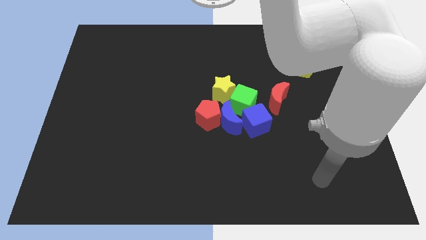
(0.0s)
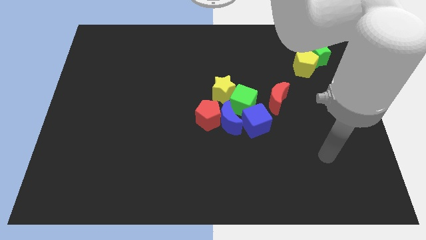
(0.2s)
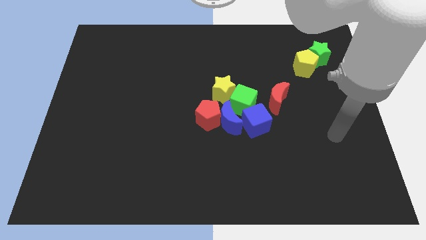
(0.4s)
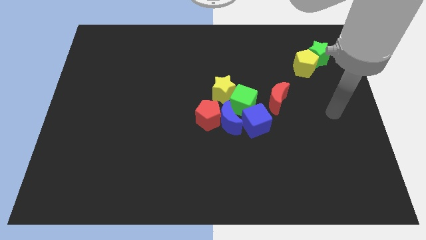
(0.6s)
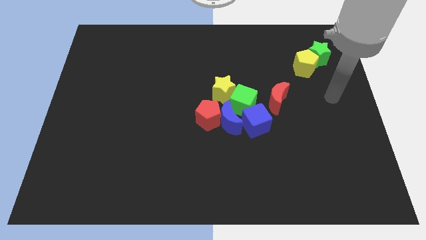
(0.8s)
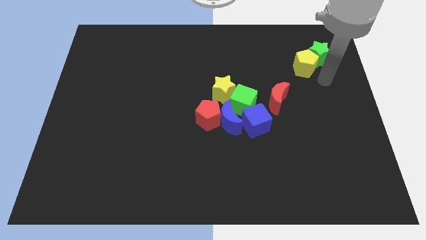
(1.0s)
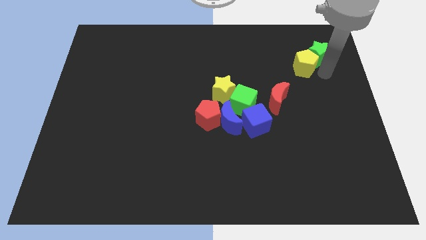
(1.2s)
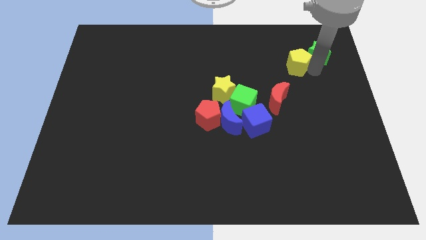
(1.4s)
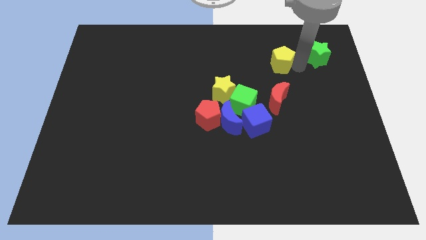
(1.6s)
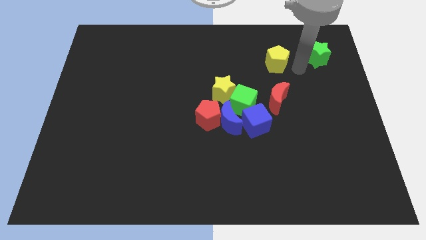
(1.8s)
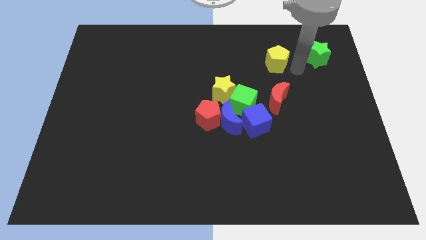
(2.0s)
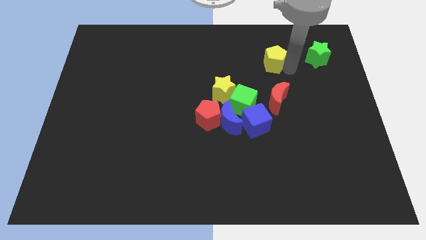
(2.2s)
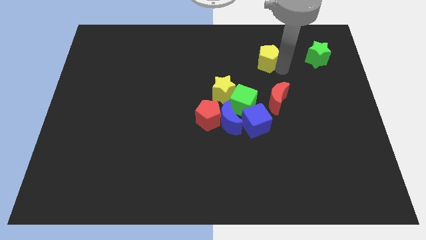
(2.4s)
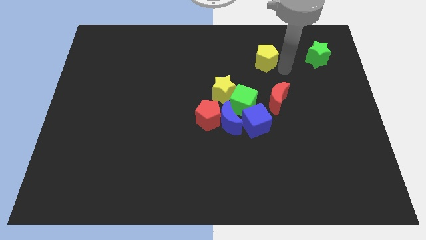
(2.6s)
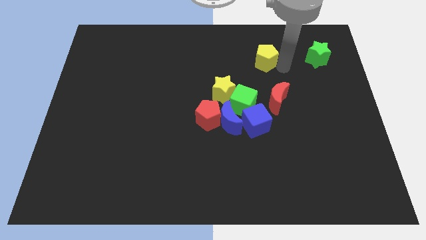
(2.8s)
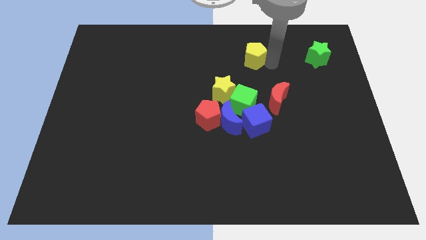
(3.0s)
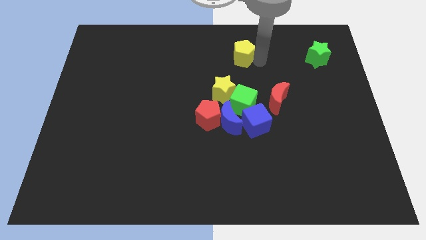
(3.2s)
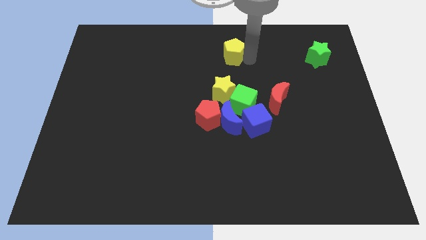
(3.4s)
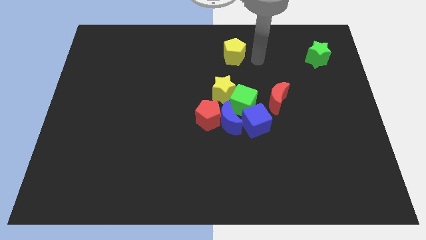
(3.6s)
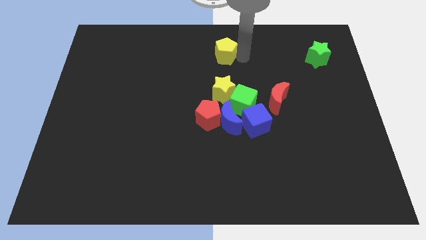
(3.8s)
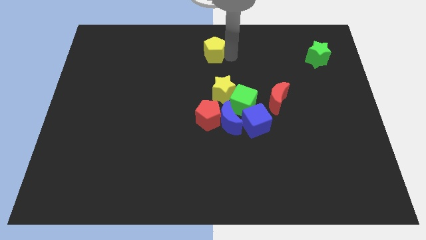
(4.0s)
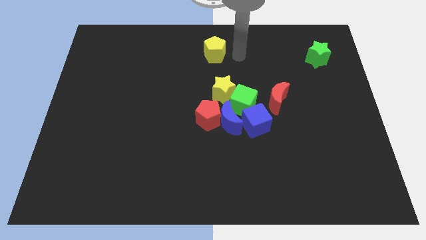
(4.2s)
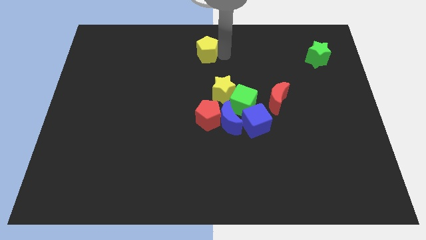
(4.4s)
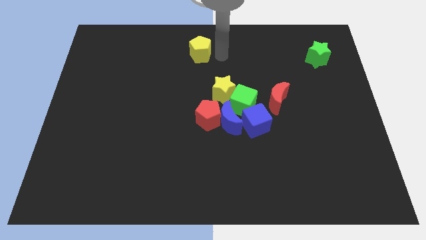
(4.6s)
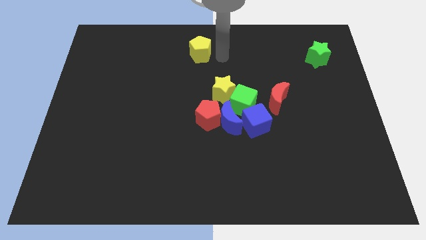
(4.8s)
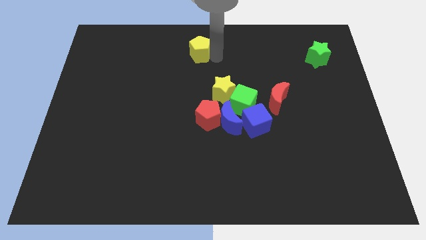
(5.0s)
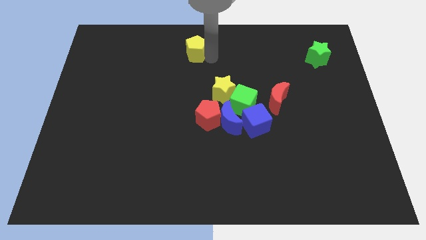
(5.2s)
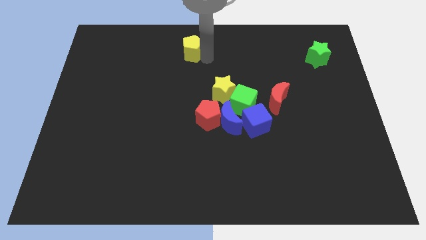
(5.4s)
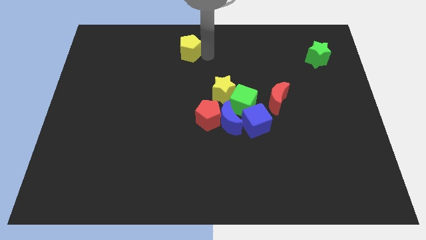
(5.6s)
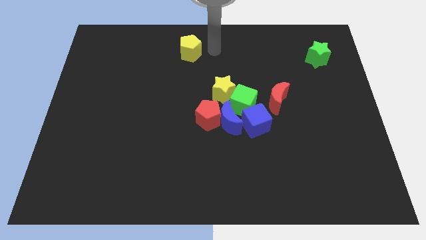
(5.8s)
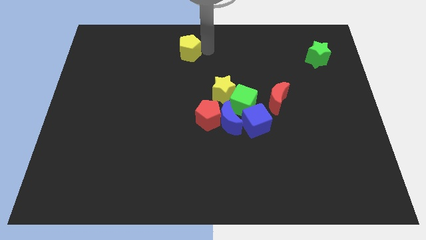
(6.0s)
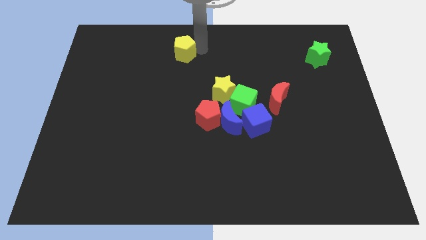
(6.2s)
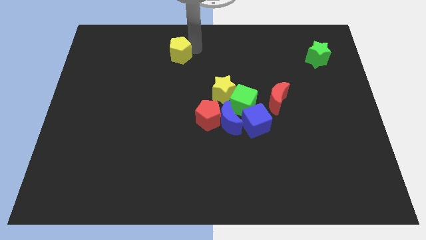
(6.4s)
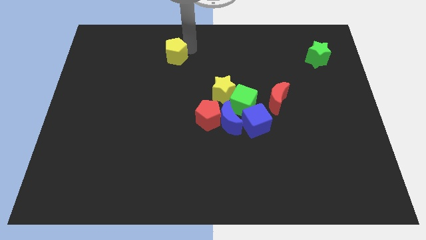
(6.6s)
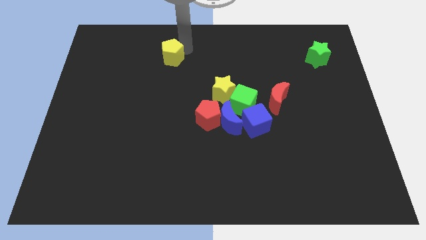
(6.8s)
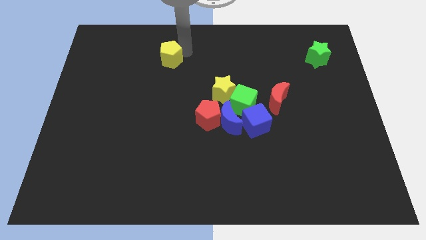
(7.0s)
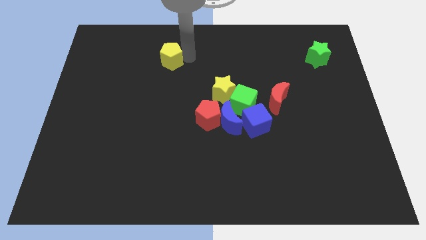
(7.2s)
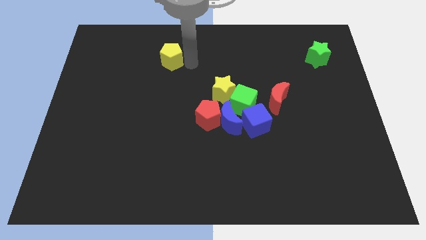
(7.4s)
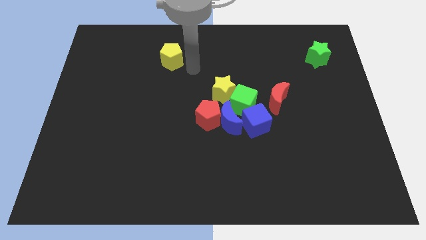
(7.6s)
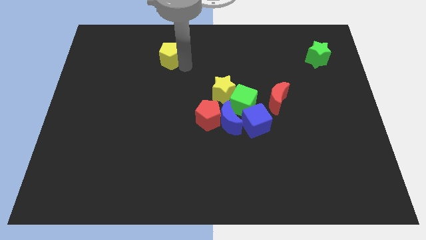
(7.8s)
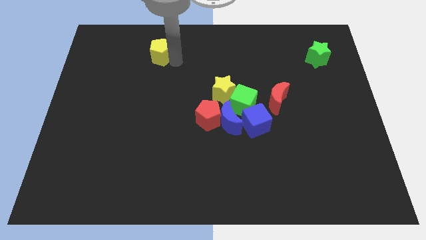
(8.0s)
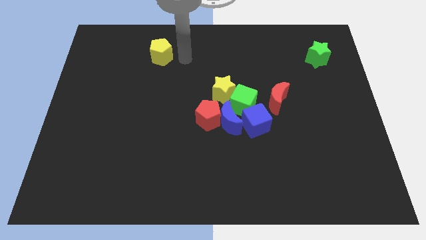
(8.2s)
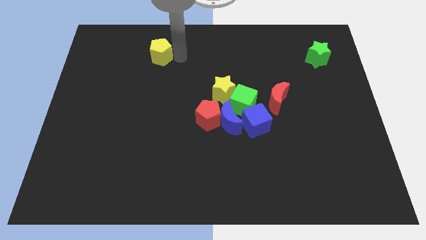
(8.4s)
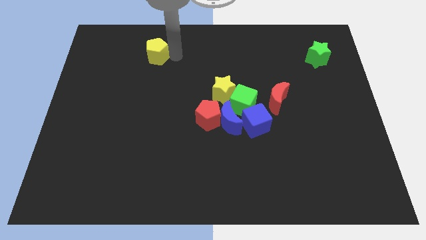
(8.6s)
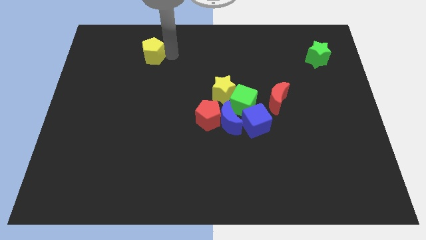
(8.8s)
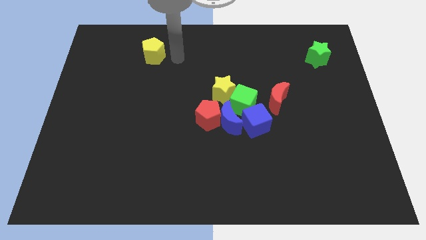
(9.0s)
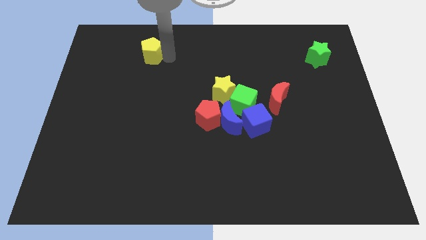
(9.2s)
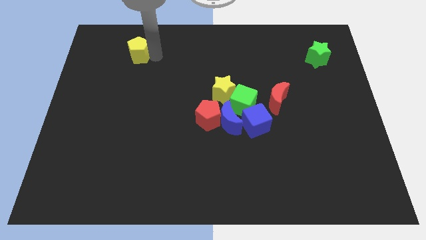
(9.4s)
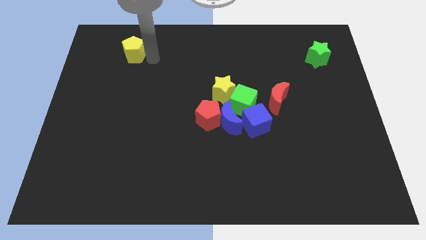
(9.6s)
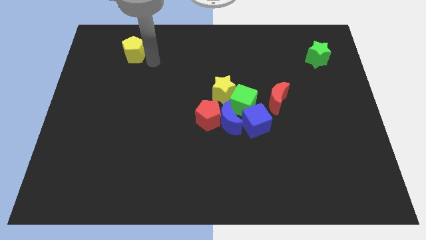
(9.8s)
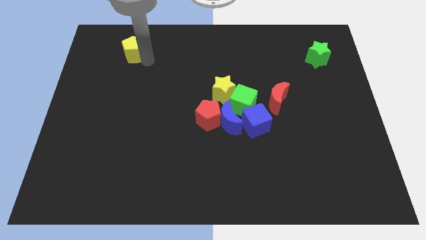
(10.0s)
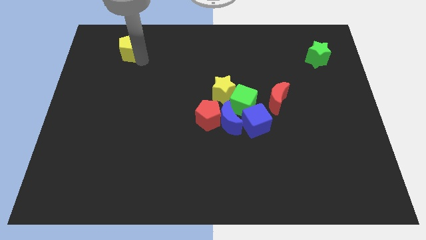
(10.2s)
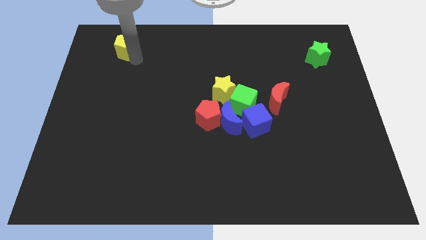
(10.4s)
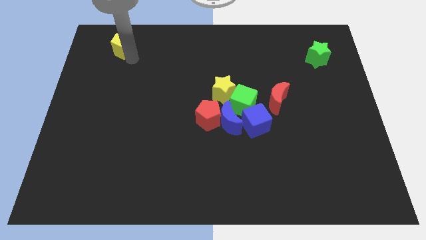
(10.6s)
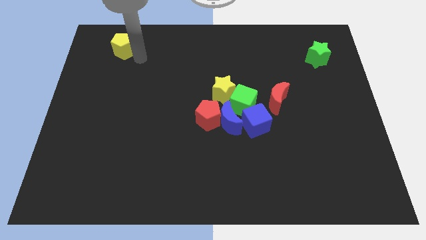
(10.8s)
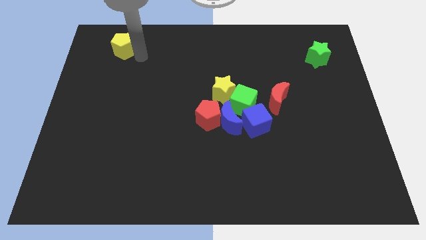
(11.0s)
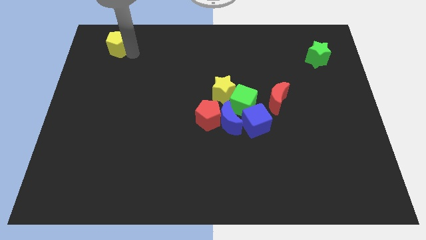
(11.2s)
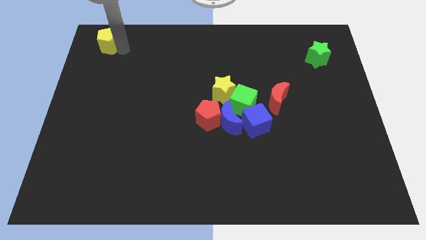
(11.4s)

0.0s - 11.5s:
put the yellow pentagon to the top left
